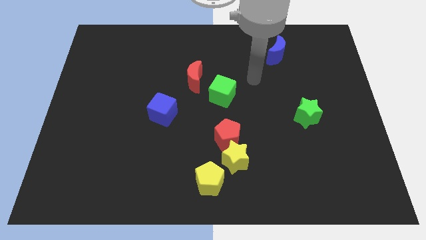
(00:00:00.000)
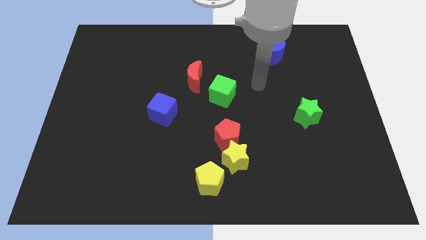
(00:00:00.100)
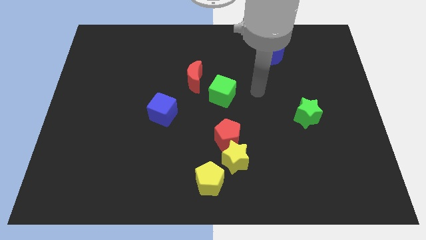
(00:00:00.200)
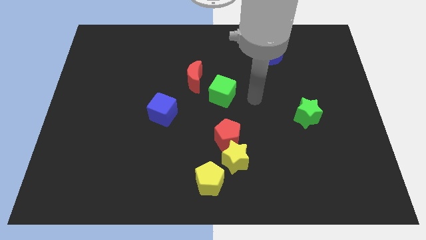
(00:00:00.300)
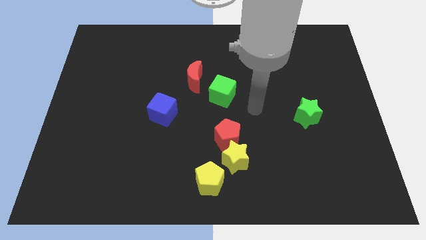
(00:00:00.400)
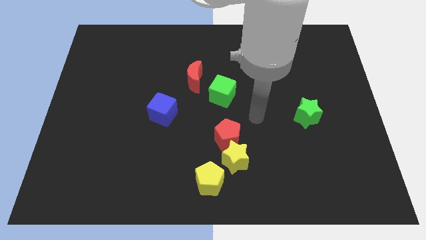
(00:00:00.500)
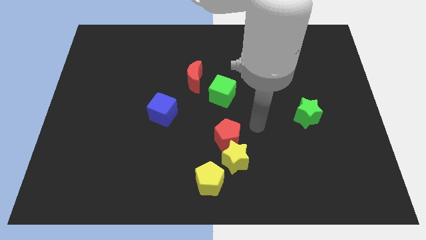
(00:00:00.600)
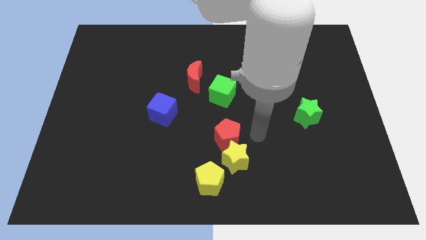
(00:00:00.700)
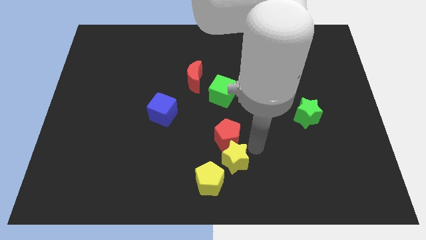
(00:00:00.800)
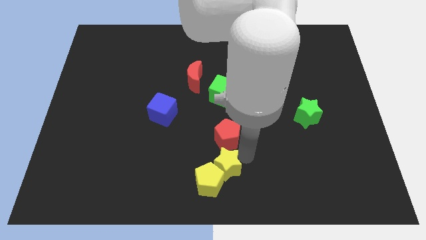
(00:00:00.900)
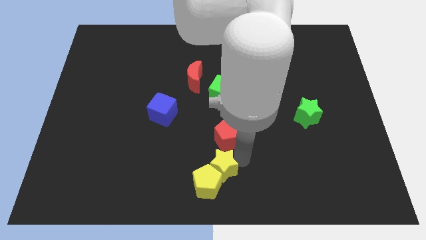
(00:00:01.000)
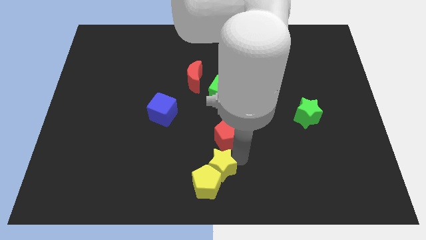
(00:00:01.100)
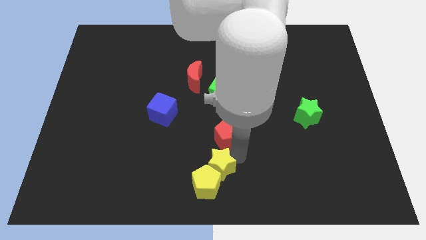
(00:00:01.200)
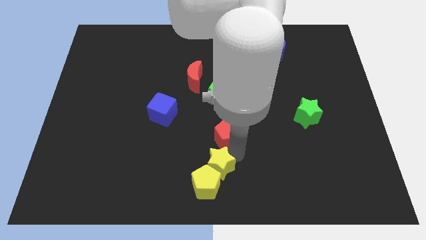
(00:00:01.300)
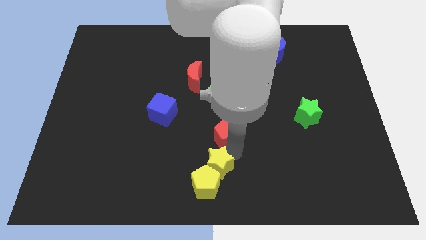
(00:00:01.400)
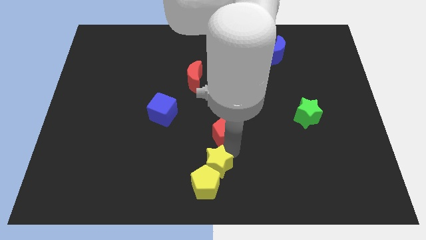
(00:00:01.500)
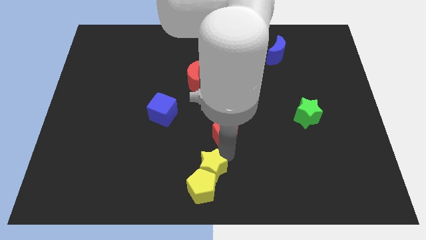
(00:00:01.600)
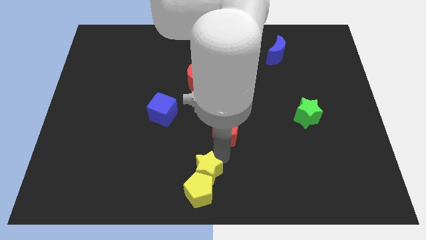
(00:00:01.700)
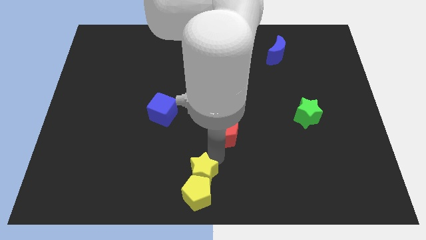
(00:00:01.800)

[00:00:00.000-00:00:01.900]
move the red pentagon away from the yellow star

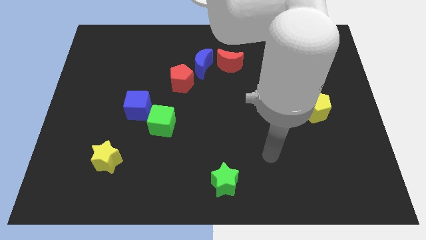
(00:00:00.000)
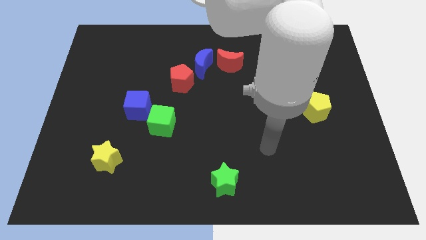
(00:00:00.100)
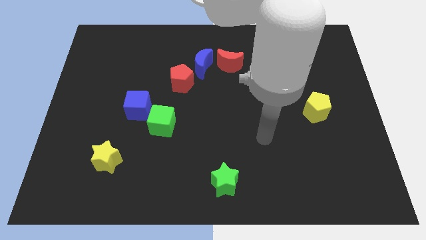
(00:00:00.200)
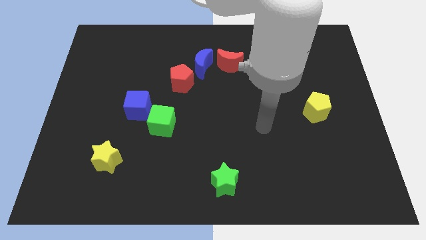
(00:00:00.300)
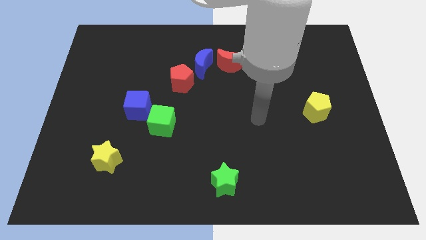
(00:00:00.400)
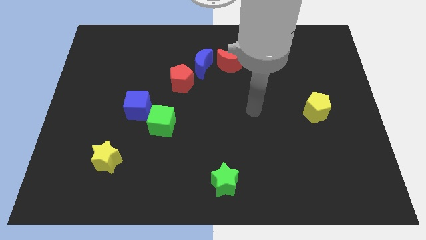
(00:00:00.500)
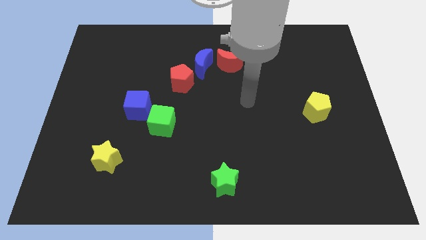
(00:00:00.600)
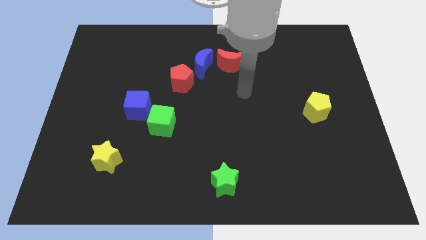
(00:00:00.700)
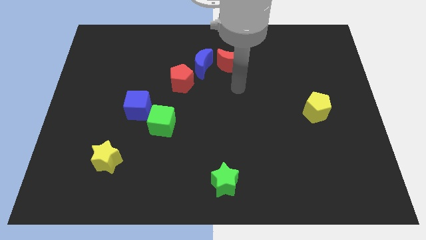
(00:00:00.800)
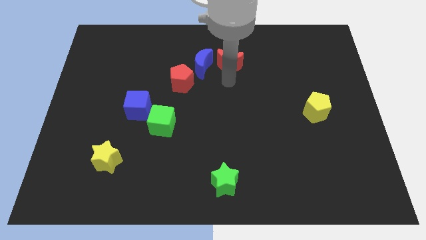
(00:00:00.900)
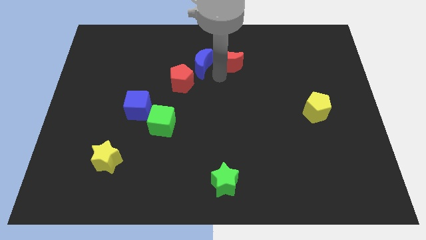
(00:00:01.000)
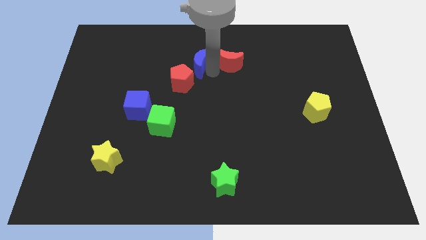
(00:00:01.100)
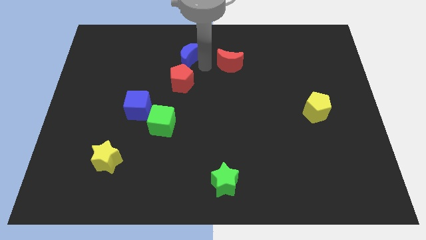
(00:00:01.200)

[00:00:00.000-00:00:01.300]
separate the red moon from the blue moon

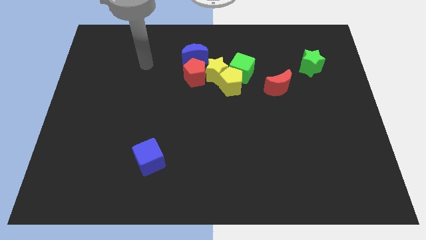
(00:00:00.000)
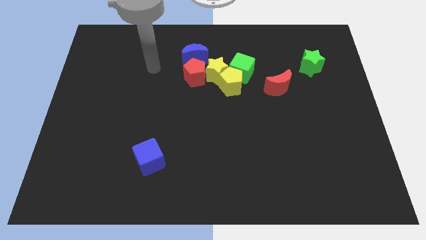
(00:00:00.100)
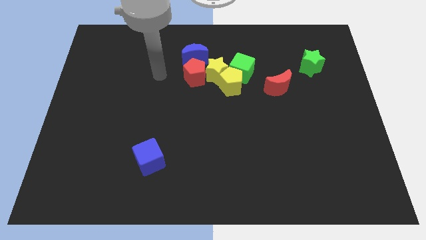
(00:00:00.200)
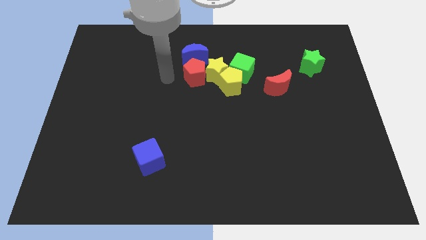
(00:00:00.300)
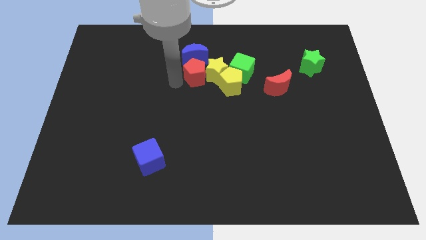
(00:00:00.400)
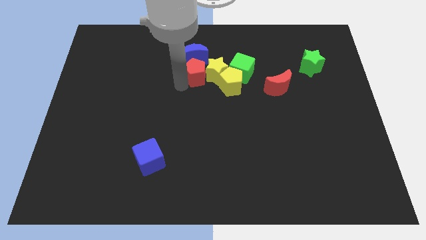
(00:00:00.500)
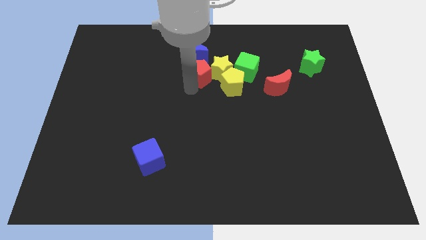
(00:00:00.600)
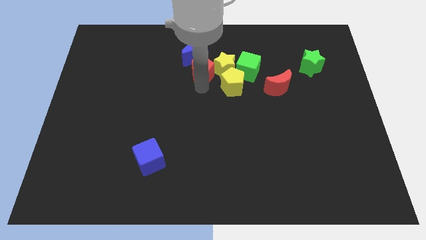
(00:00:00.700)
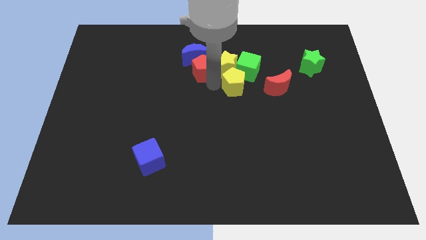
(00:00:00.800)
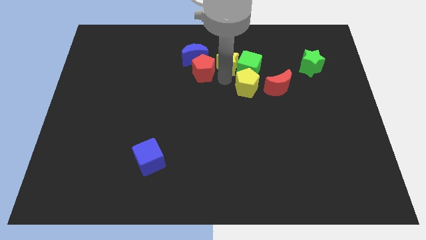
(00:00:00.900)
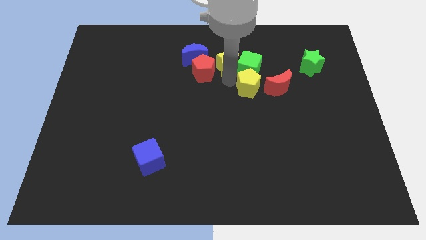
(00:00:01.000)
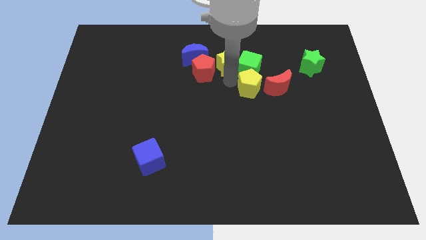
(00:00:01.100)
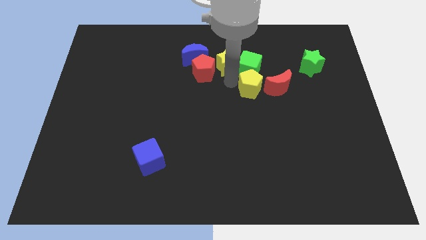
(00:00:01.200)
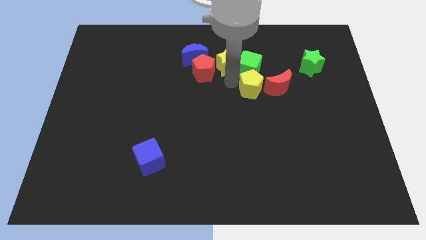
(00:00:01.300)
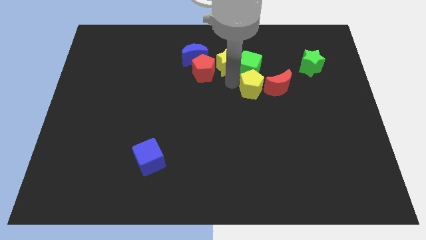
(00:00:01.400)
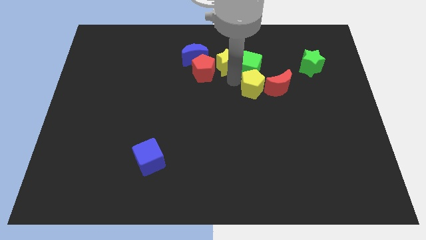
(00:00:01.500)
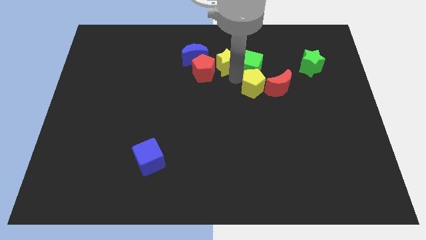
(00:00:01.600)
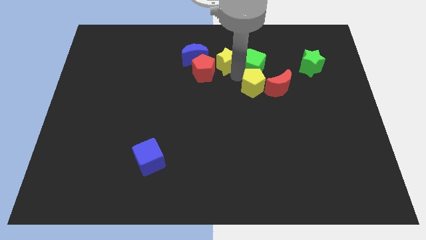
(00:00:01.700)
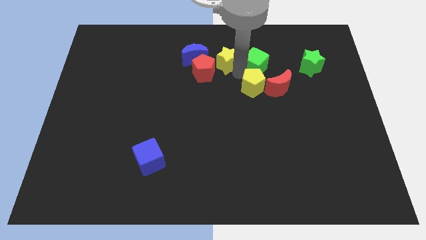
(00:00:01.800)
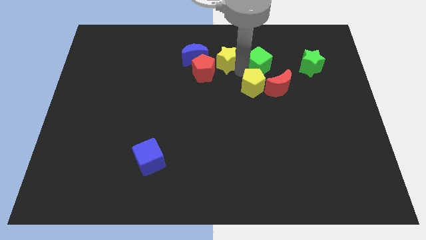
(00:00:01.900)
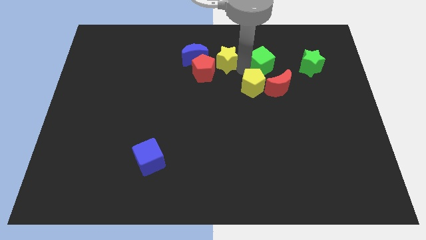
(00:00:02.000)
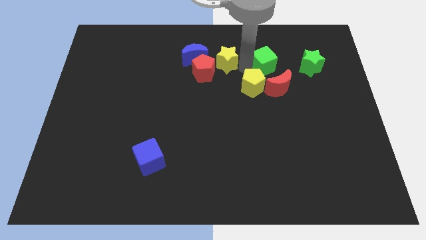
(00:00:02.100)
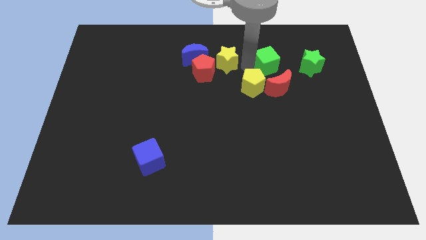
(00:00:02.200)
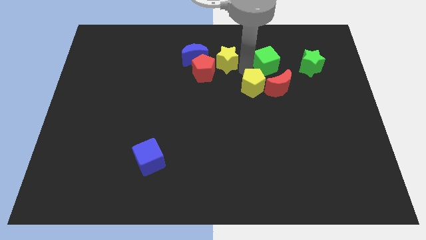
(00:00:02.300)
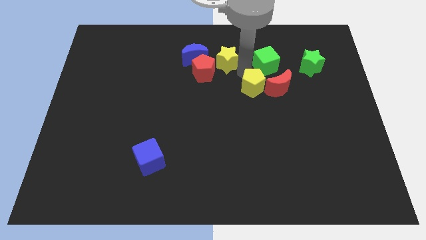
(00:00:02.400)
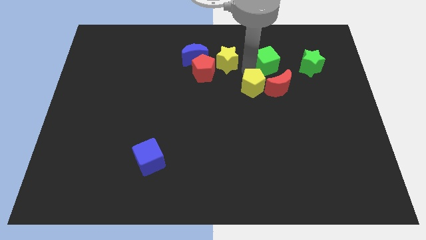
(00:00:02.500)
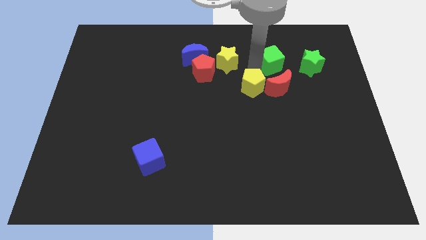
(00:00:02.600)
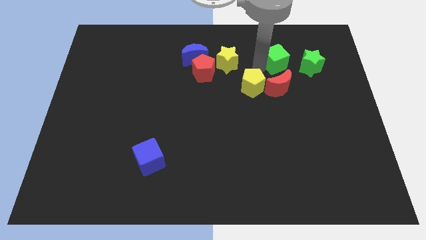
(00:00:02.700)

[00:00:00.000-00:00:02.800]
pull the green cube apart from the yellow pentagon and yellow star

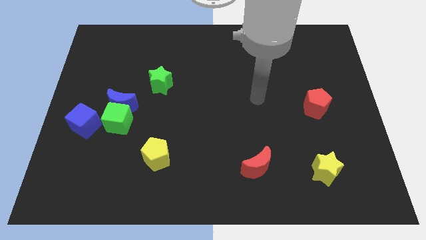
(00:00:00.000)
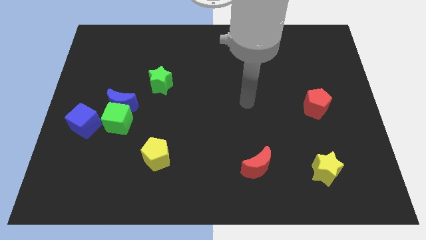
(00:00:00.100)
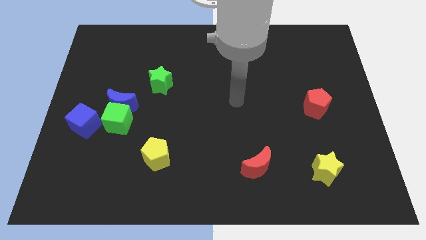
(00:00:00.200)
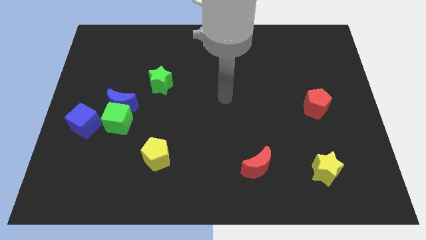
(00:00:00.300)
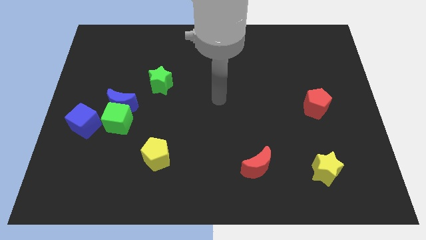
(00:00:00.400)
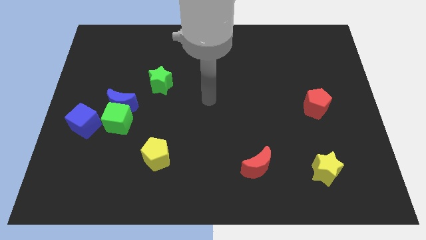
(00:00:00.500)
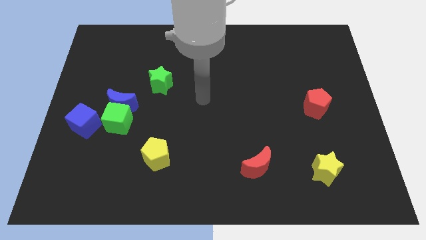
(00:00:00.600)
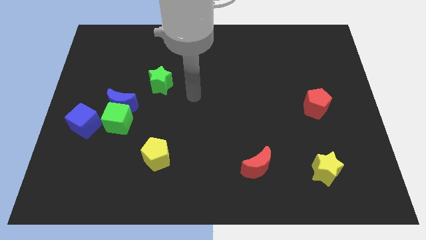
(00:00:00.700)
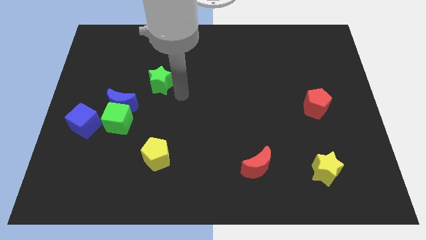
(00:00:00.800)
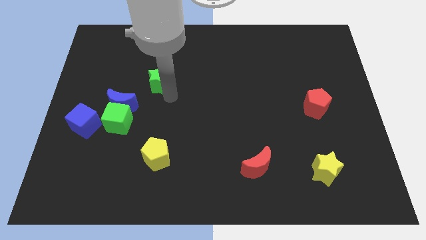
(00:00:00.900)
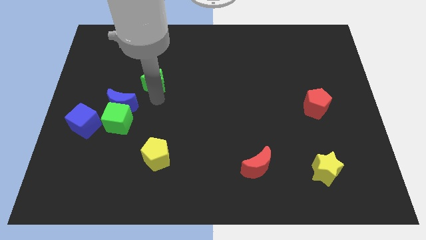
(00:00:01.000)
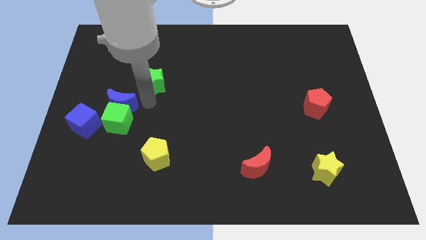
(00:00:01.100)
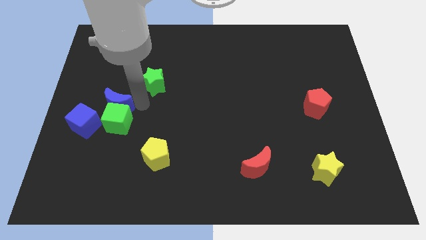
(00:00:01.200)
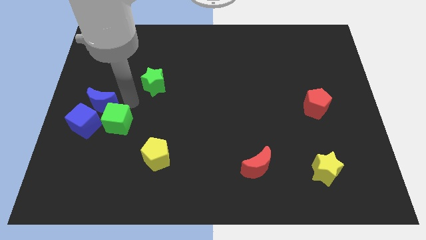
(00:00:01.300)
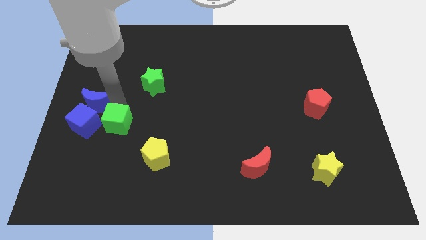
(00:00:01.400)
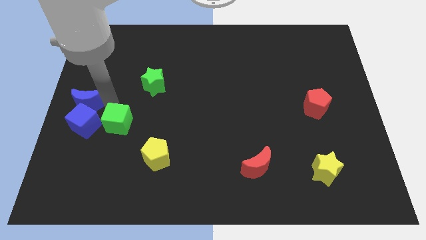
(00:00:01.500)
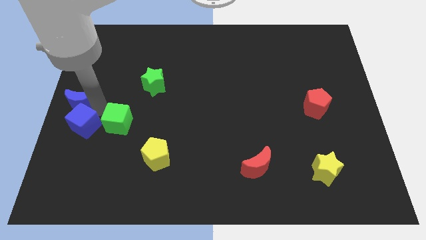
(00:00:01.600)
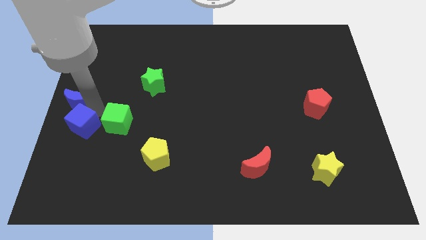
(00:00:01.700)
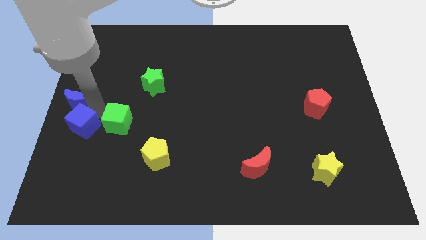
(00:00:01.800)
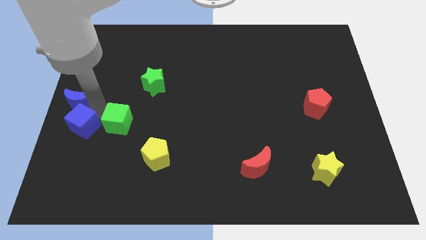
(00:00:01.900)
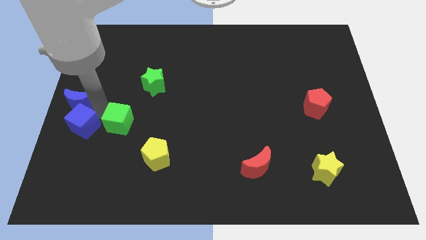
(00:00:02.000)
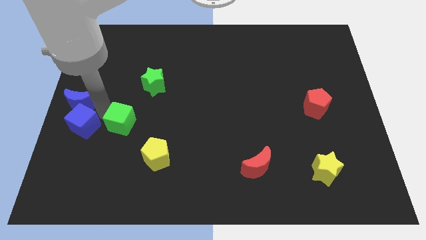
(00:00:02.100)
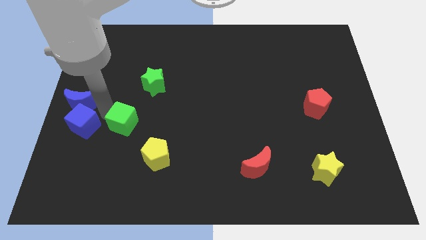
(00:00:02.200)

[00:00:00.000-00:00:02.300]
move the green cube away from the blue moon and blue cube

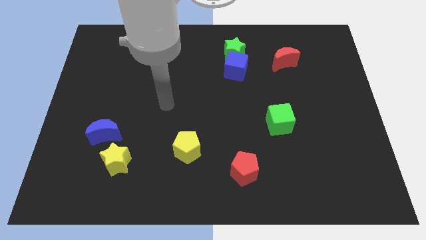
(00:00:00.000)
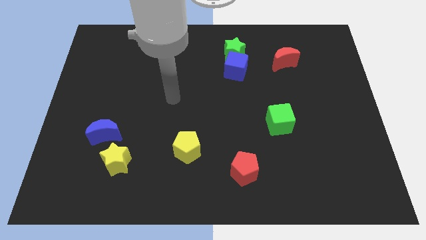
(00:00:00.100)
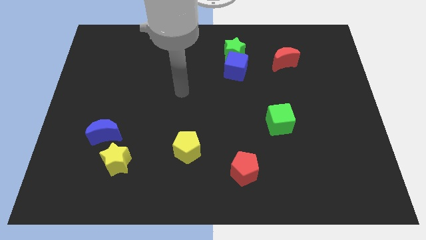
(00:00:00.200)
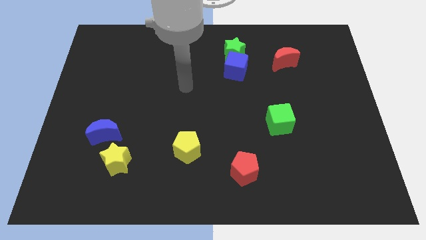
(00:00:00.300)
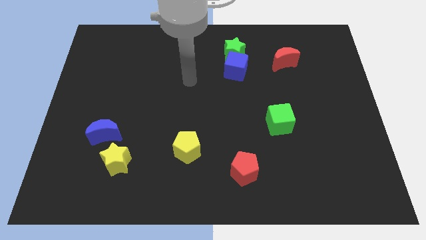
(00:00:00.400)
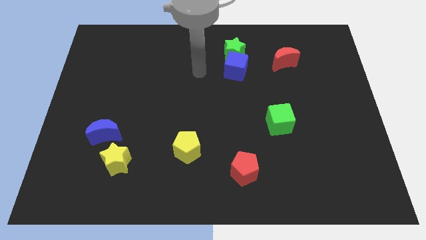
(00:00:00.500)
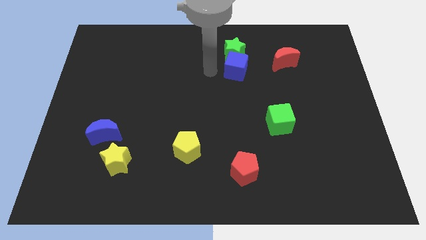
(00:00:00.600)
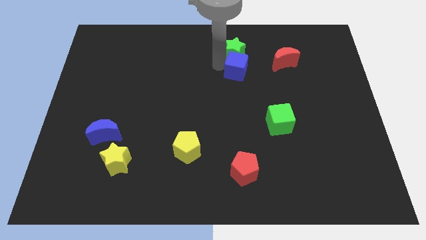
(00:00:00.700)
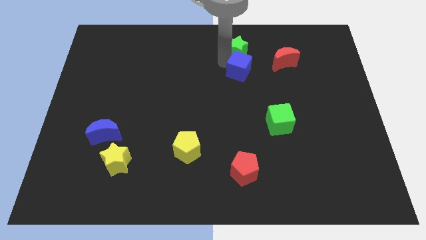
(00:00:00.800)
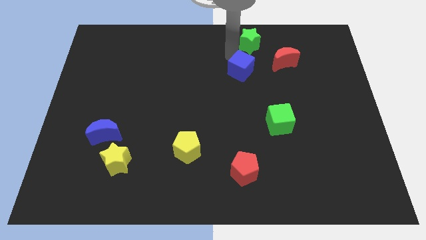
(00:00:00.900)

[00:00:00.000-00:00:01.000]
separate the blue cube from the green star
